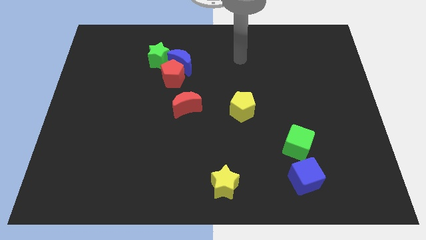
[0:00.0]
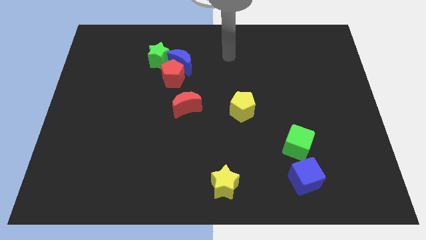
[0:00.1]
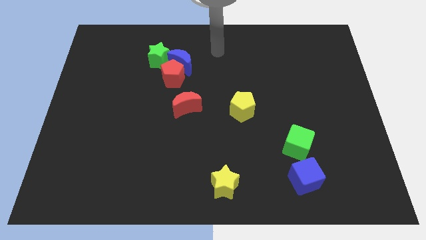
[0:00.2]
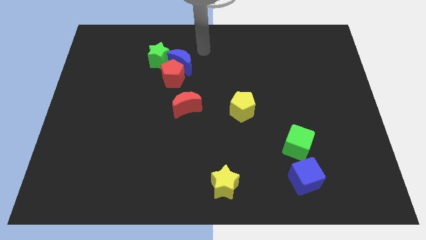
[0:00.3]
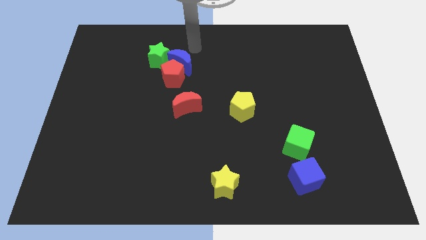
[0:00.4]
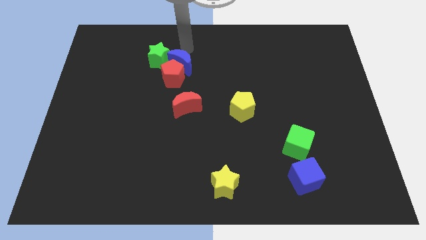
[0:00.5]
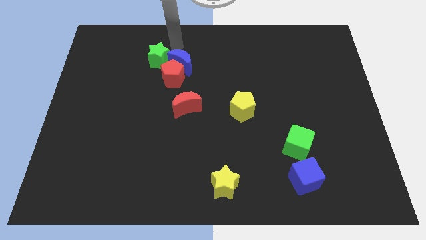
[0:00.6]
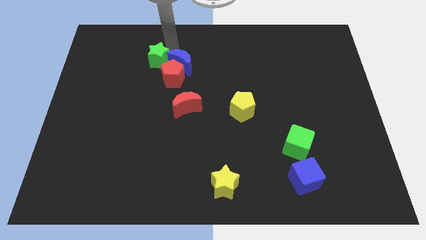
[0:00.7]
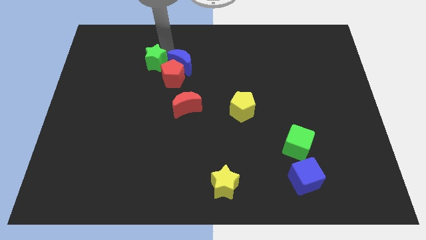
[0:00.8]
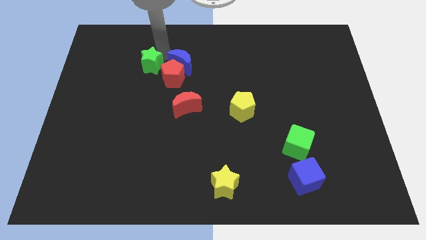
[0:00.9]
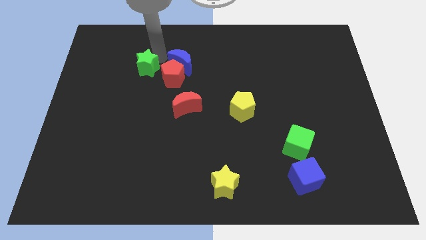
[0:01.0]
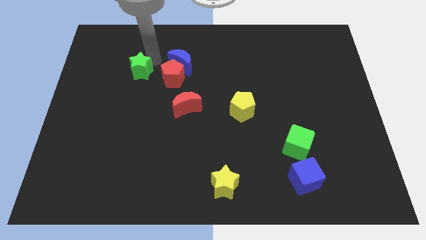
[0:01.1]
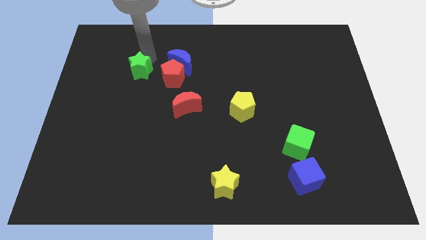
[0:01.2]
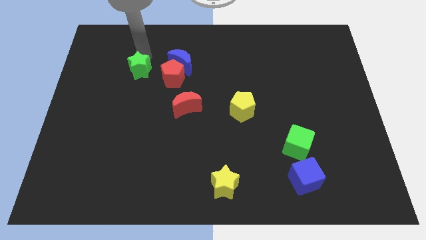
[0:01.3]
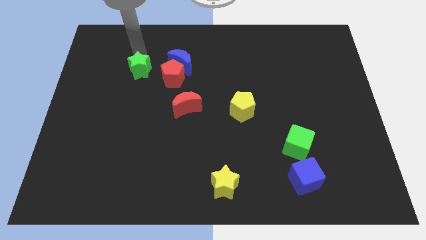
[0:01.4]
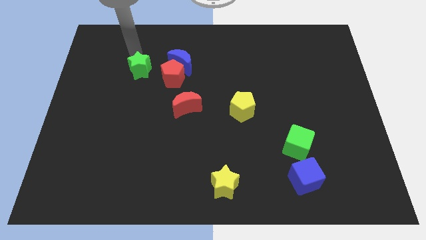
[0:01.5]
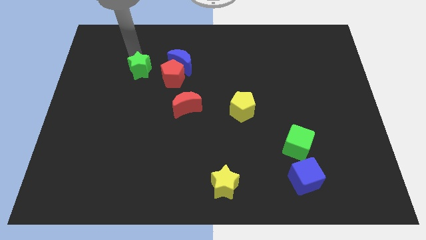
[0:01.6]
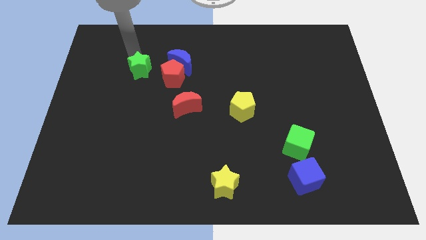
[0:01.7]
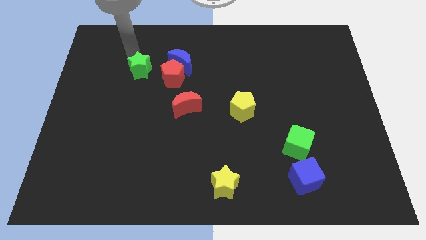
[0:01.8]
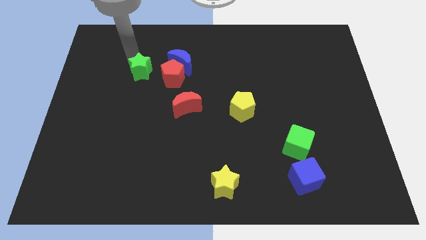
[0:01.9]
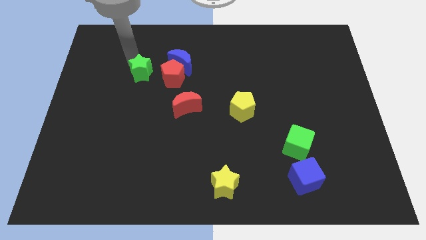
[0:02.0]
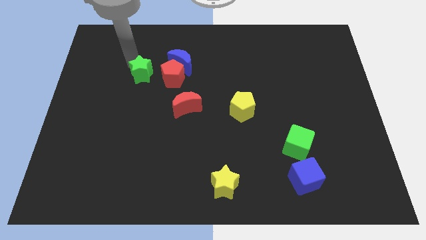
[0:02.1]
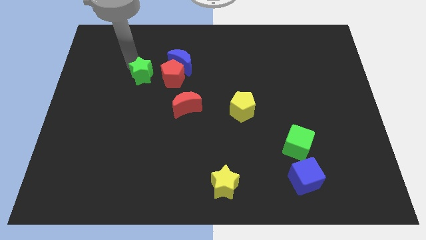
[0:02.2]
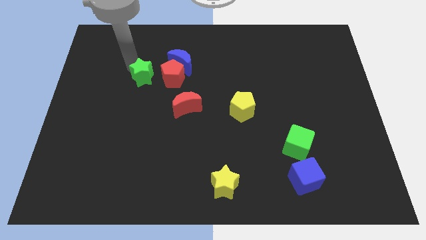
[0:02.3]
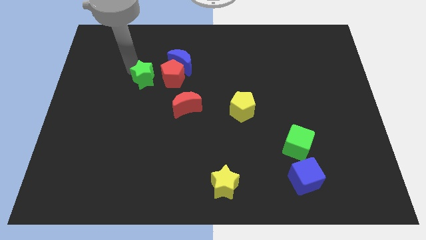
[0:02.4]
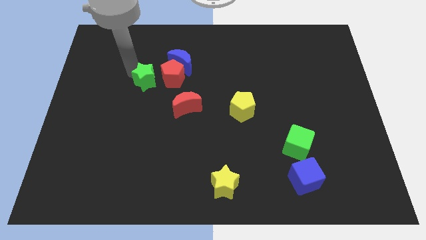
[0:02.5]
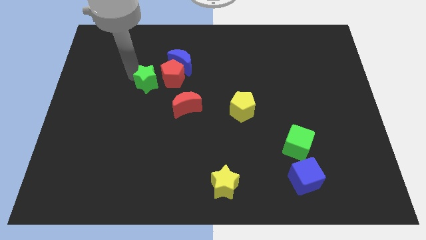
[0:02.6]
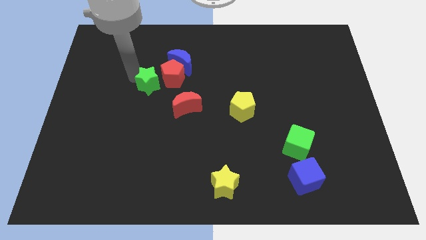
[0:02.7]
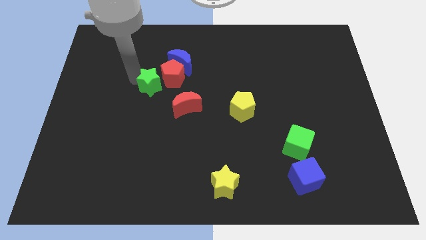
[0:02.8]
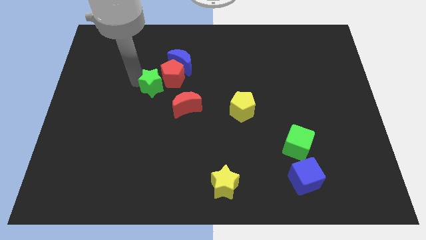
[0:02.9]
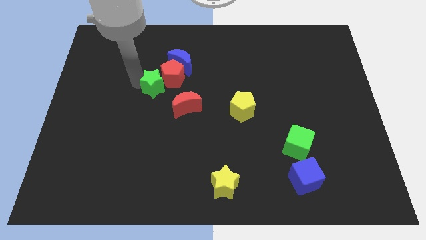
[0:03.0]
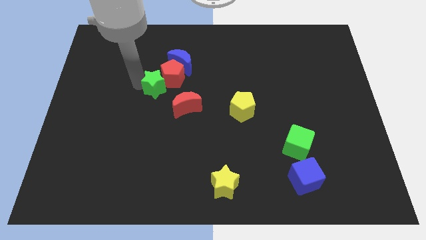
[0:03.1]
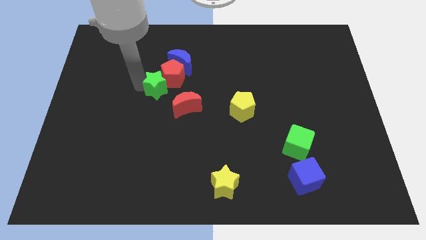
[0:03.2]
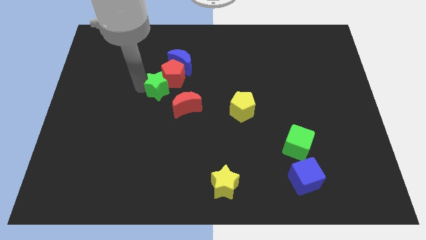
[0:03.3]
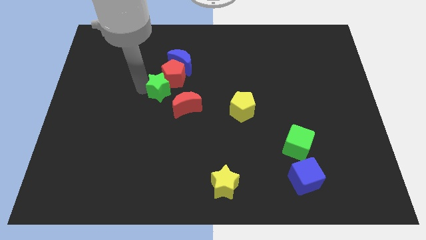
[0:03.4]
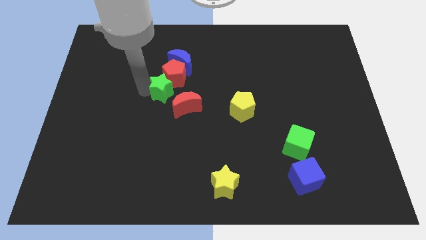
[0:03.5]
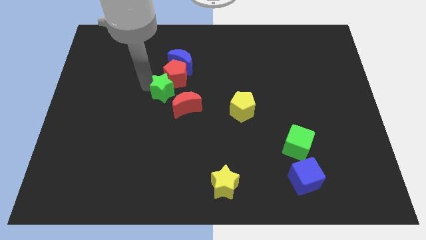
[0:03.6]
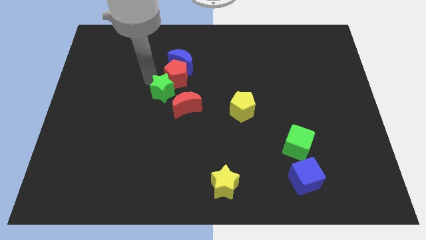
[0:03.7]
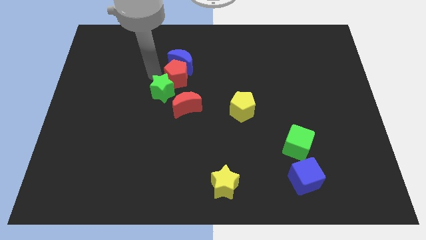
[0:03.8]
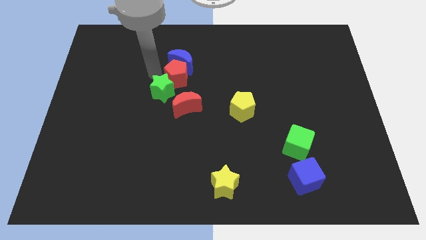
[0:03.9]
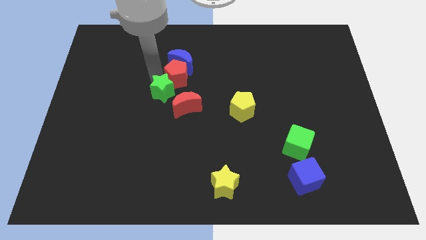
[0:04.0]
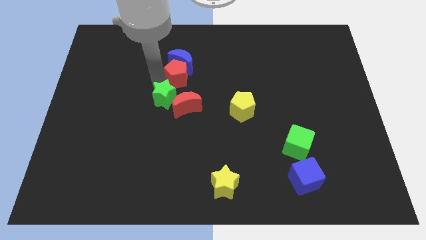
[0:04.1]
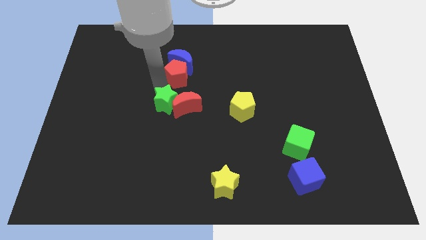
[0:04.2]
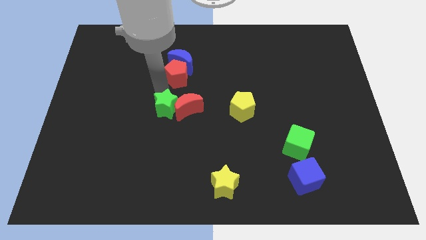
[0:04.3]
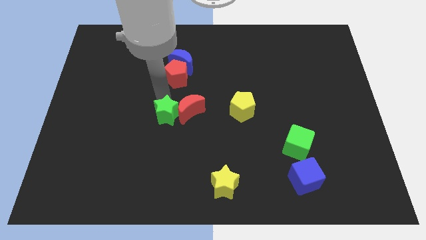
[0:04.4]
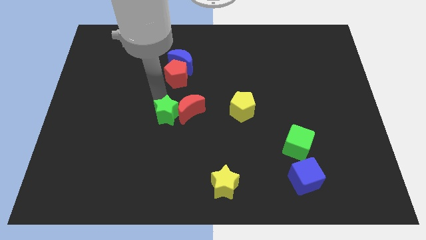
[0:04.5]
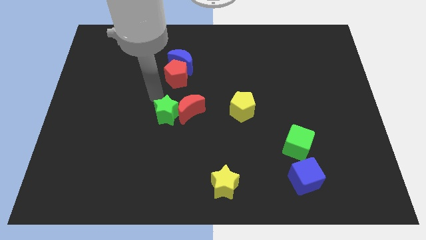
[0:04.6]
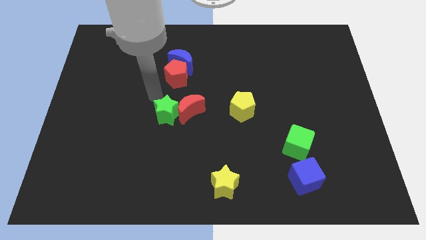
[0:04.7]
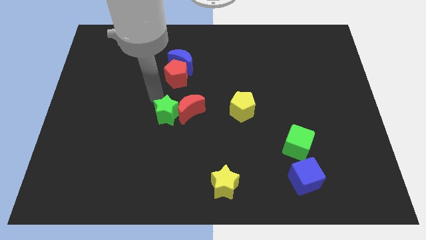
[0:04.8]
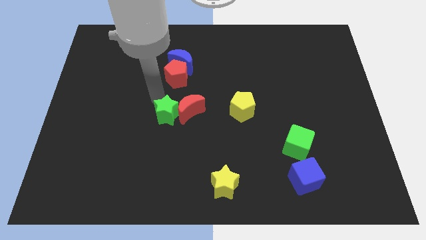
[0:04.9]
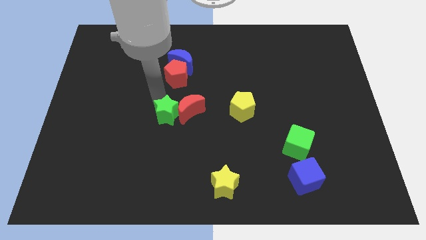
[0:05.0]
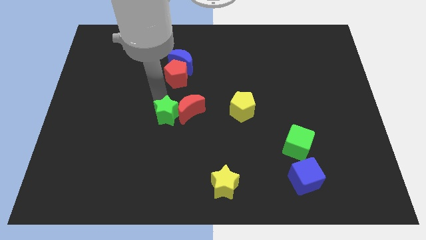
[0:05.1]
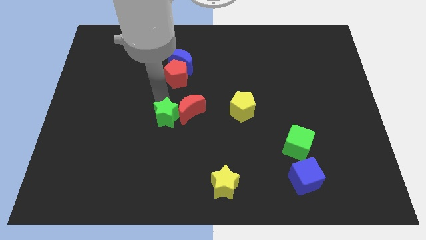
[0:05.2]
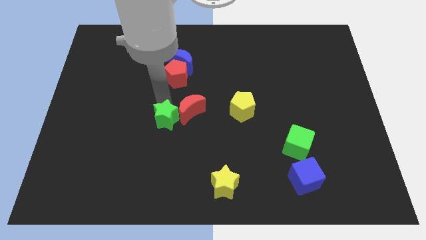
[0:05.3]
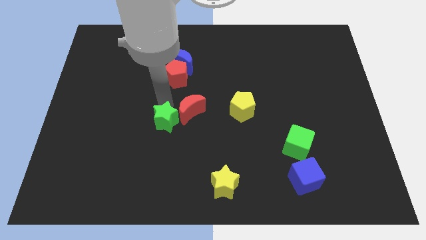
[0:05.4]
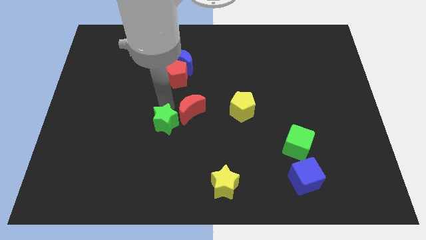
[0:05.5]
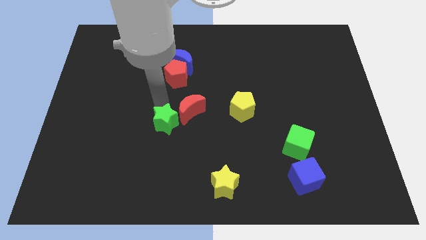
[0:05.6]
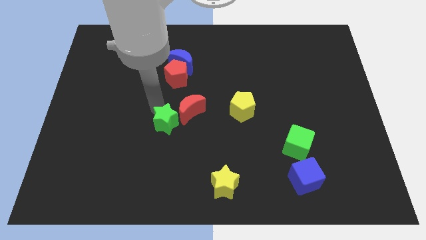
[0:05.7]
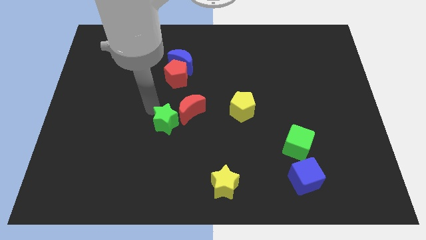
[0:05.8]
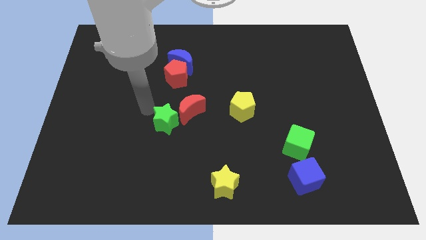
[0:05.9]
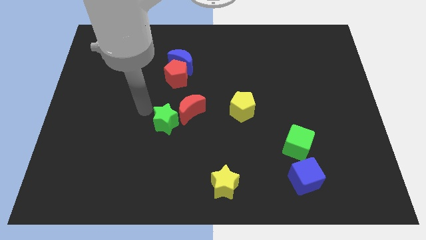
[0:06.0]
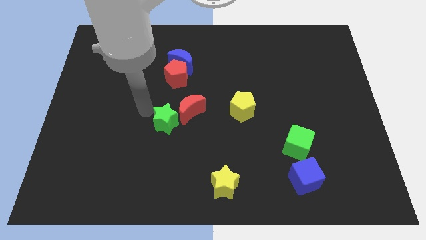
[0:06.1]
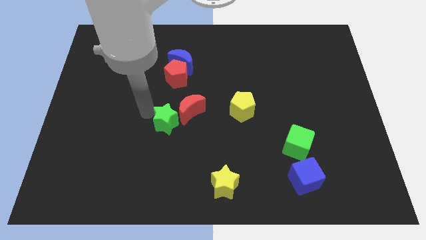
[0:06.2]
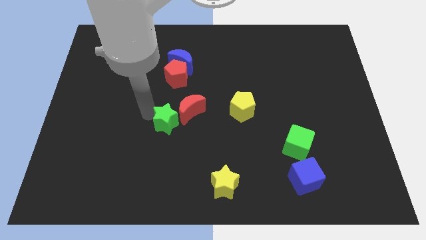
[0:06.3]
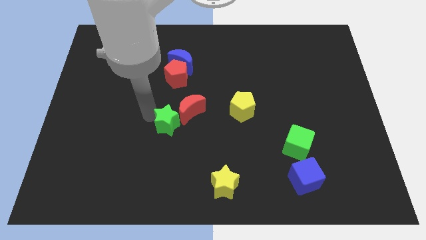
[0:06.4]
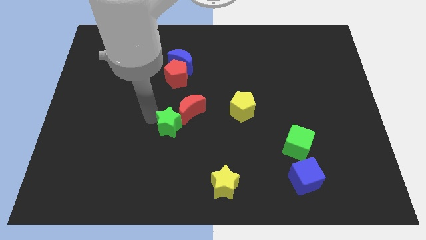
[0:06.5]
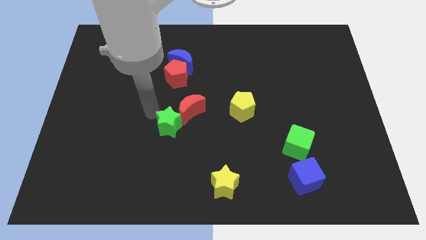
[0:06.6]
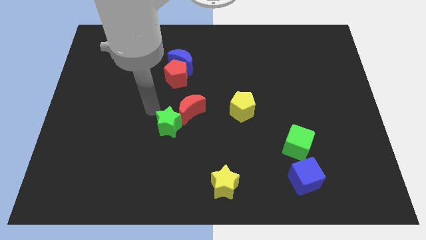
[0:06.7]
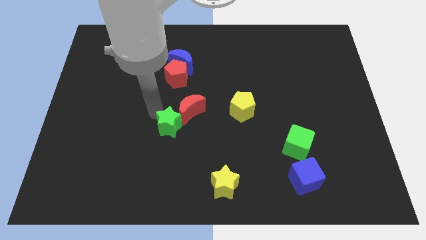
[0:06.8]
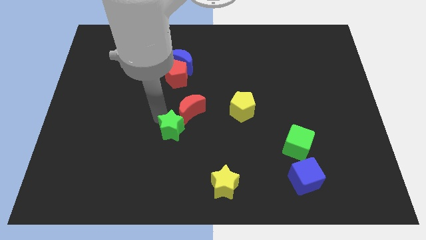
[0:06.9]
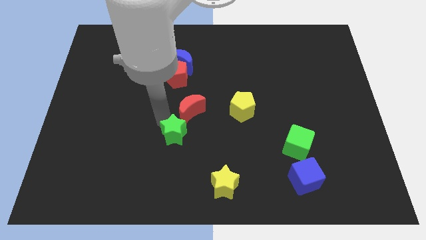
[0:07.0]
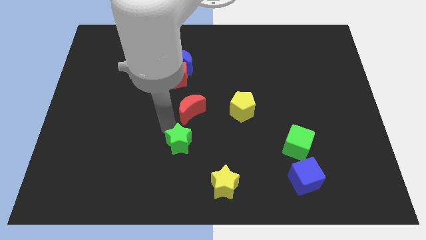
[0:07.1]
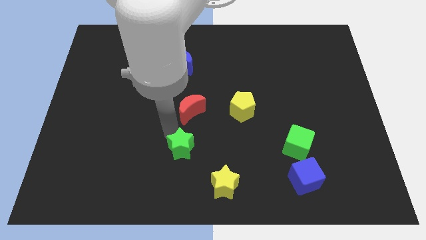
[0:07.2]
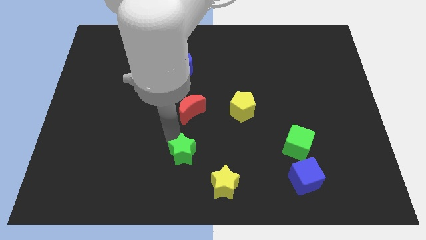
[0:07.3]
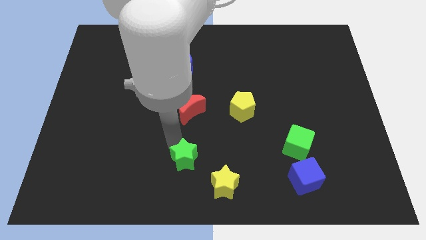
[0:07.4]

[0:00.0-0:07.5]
move the green star to the bottom

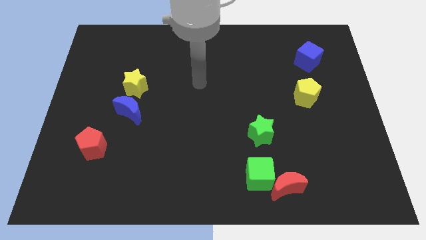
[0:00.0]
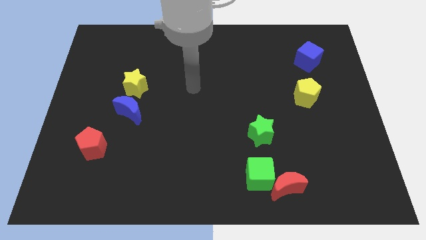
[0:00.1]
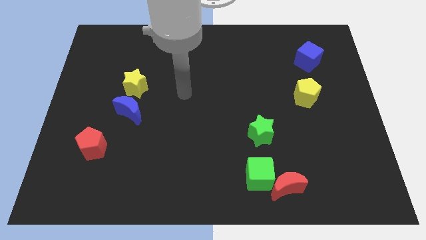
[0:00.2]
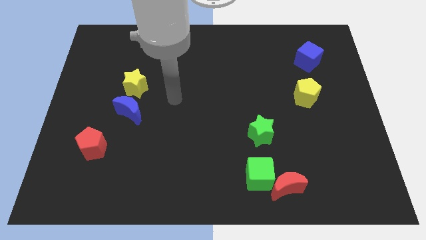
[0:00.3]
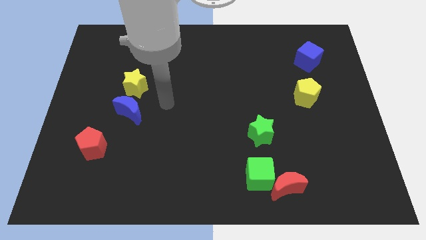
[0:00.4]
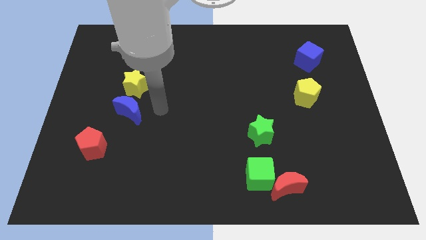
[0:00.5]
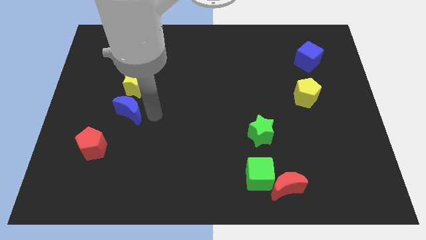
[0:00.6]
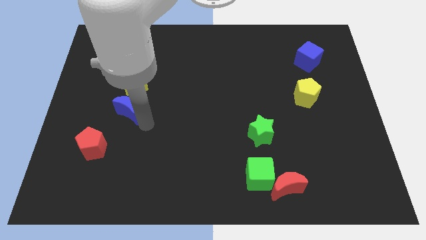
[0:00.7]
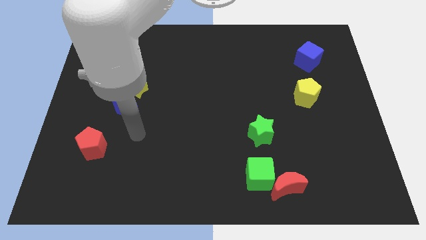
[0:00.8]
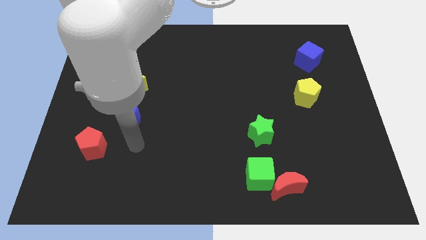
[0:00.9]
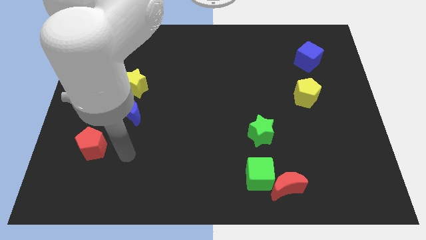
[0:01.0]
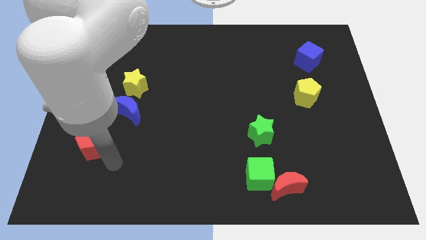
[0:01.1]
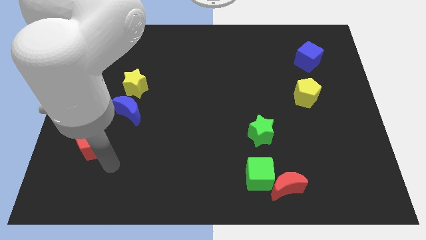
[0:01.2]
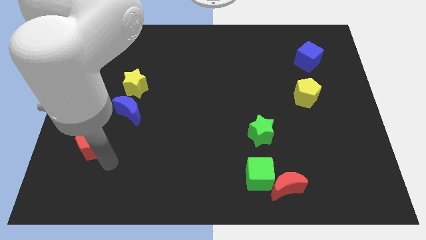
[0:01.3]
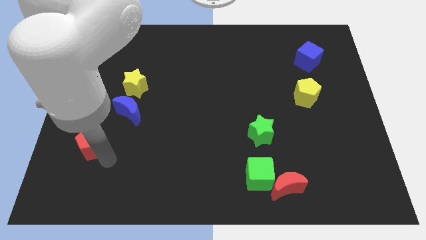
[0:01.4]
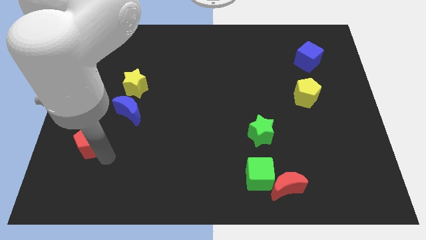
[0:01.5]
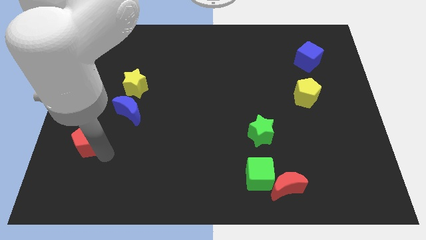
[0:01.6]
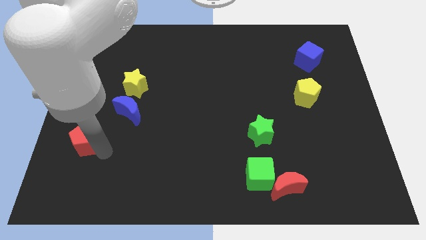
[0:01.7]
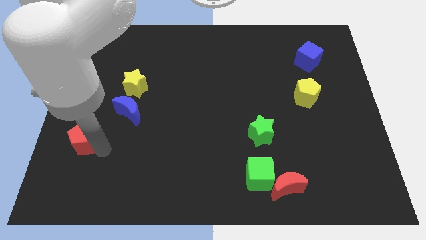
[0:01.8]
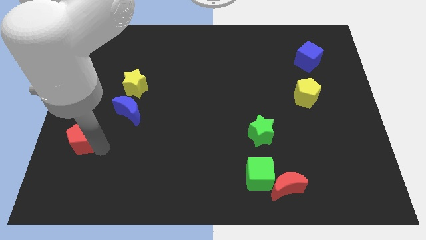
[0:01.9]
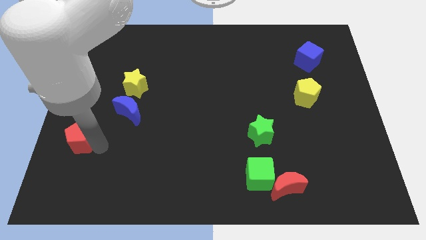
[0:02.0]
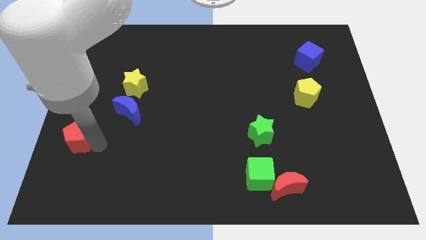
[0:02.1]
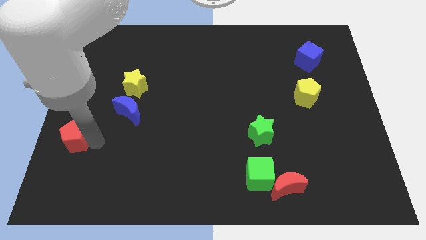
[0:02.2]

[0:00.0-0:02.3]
push the red pentagon to the left side of the board
